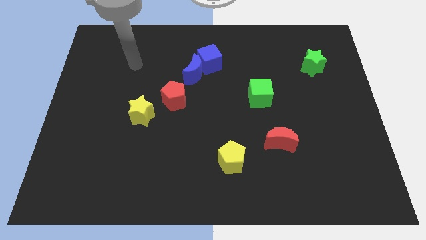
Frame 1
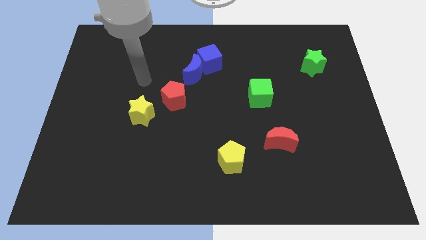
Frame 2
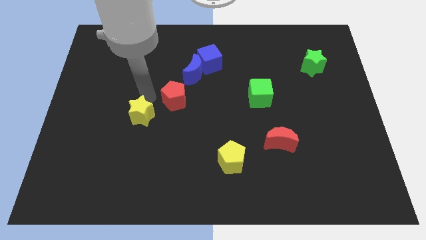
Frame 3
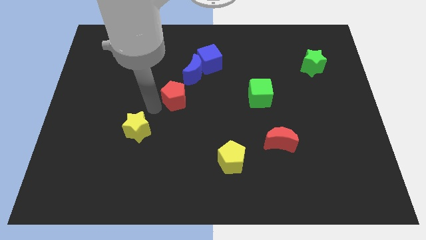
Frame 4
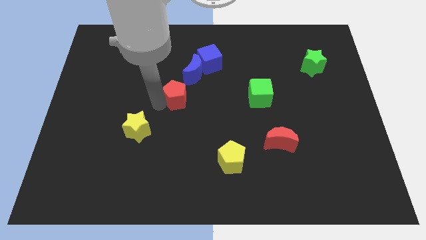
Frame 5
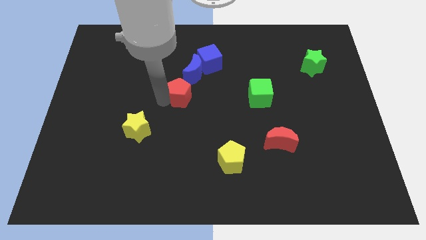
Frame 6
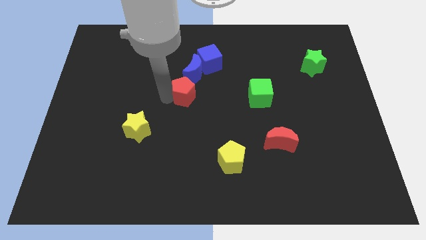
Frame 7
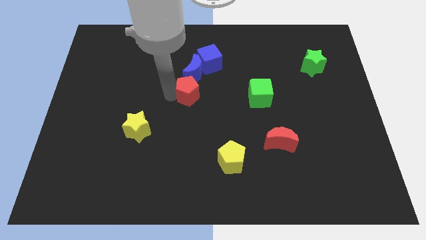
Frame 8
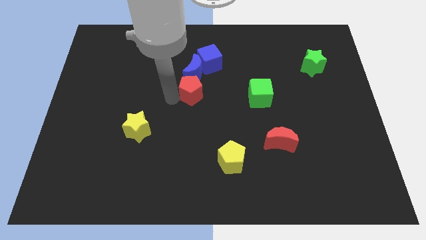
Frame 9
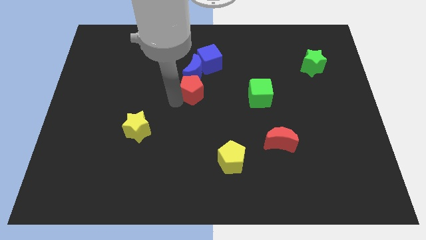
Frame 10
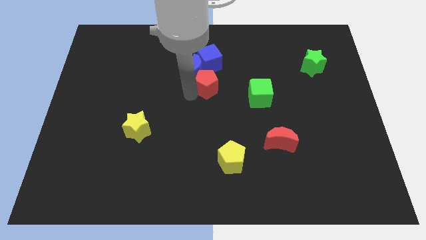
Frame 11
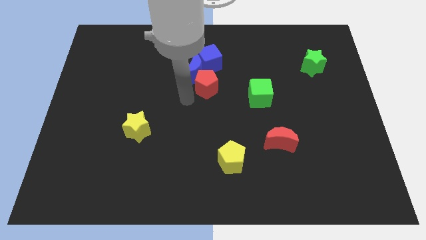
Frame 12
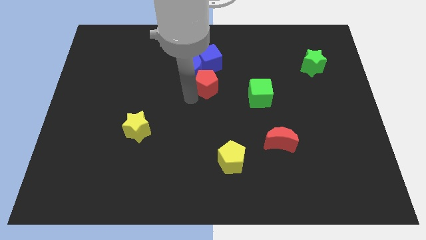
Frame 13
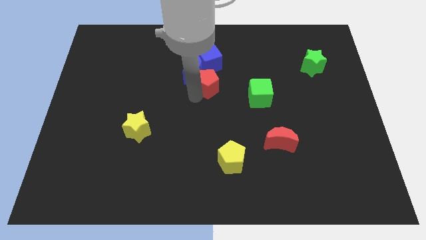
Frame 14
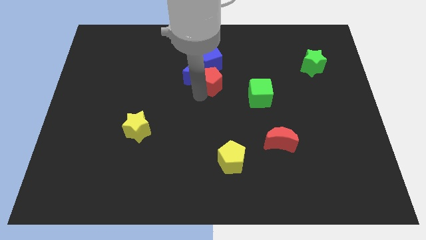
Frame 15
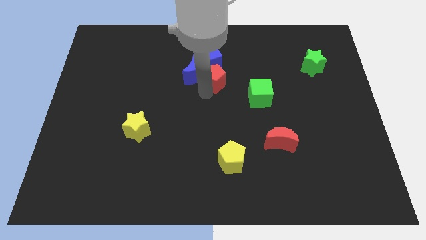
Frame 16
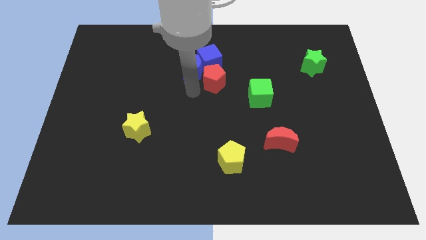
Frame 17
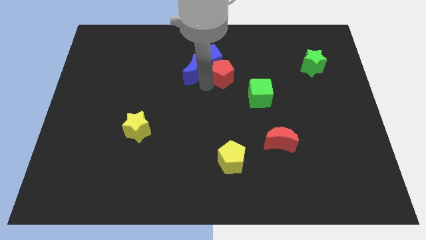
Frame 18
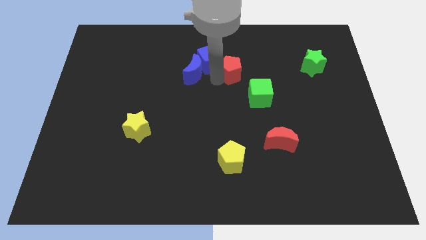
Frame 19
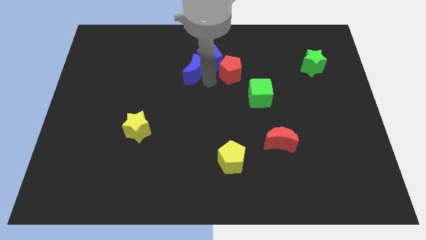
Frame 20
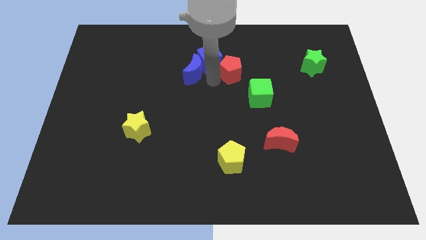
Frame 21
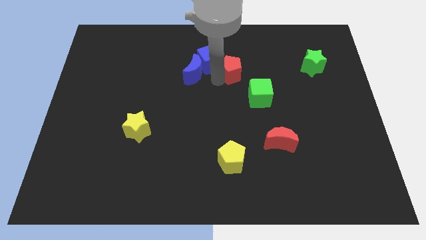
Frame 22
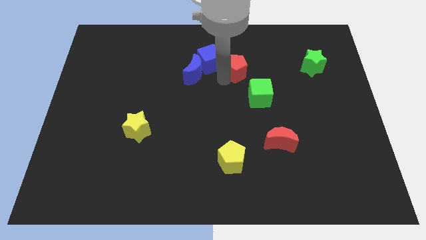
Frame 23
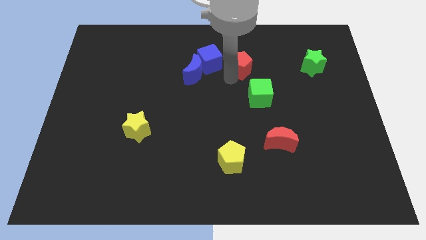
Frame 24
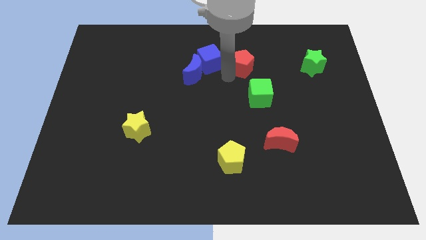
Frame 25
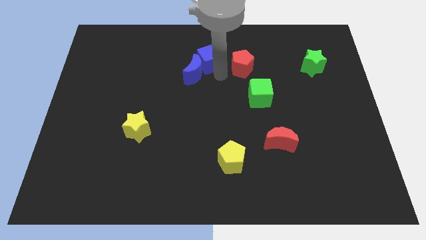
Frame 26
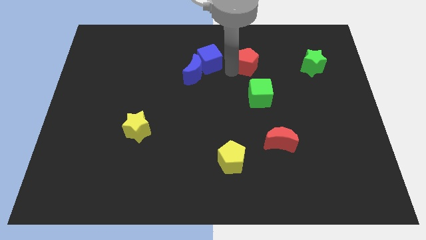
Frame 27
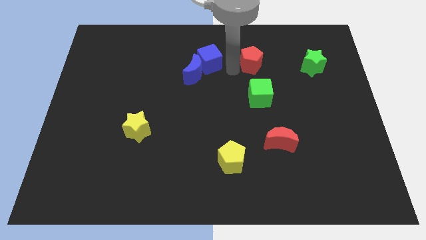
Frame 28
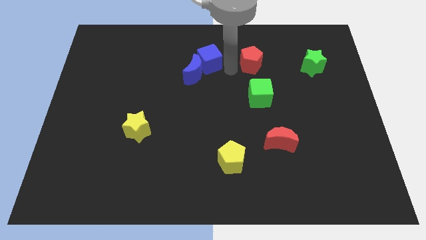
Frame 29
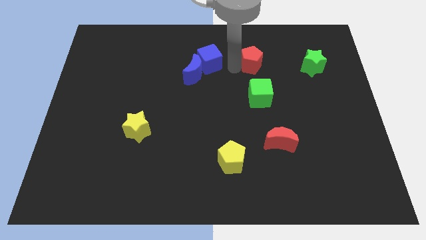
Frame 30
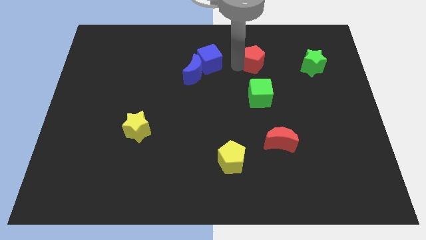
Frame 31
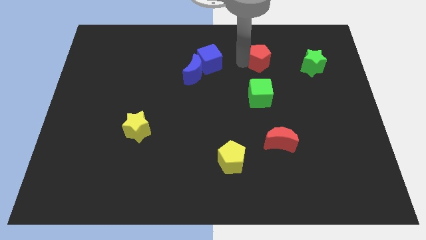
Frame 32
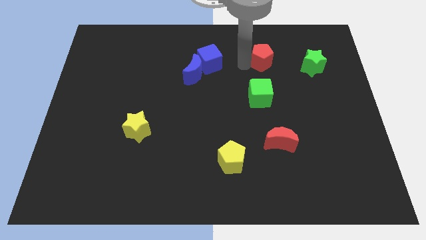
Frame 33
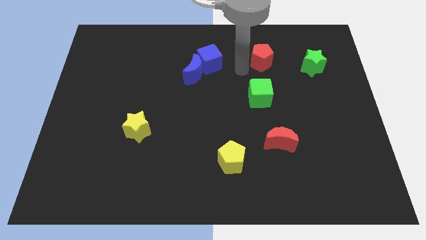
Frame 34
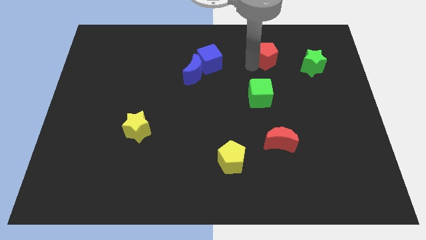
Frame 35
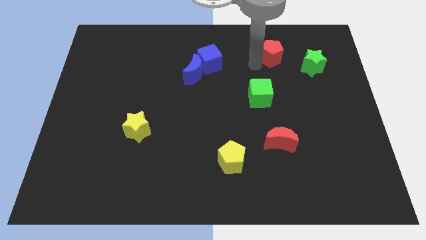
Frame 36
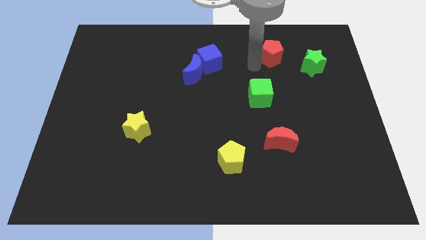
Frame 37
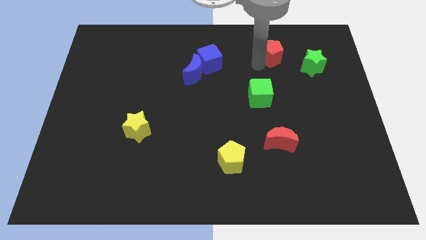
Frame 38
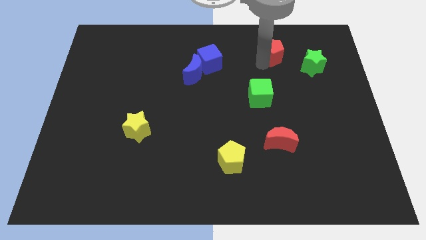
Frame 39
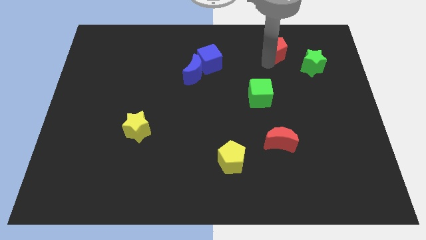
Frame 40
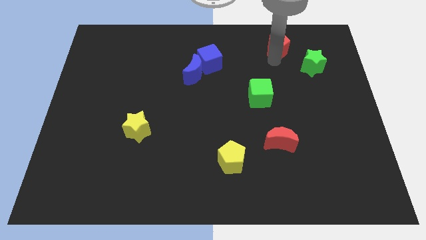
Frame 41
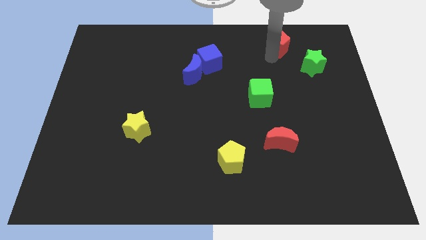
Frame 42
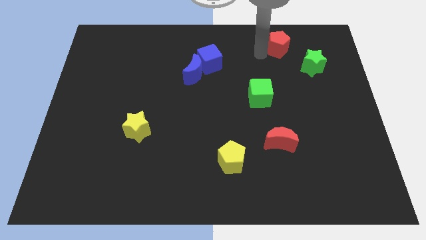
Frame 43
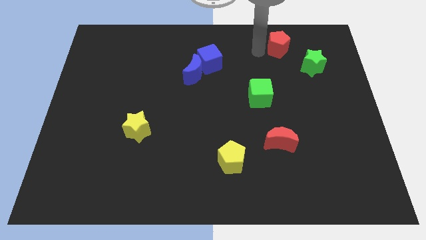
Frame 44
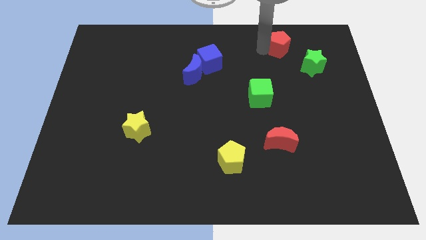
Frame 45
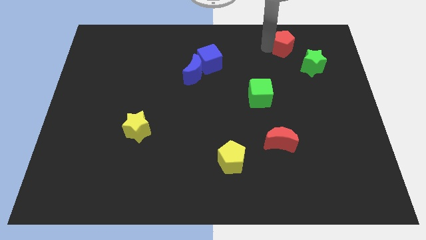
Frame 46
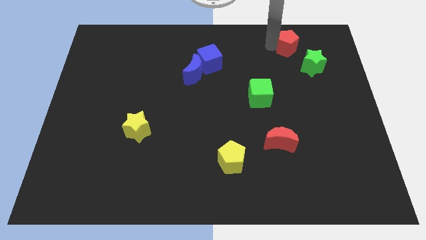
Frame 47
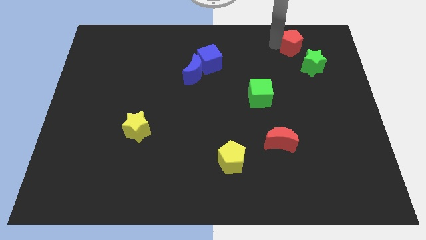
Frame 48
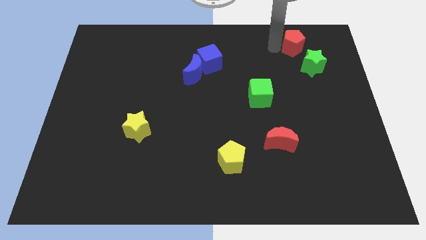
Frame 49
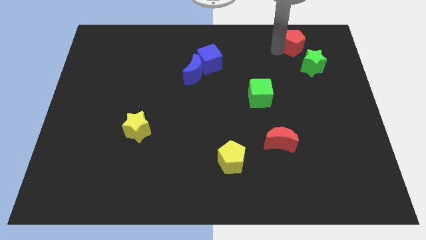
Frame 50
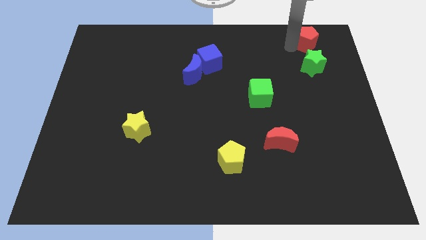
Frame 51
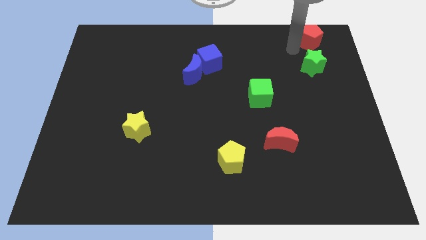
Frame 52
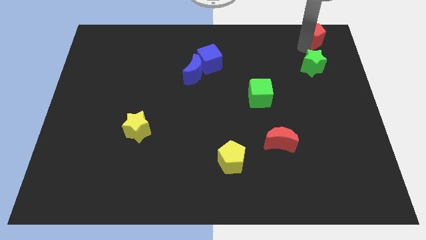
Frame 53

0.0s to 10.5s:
push the red pentagon to the upper right corner

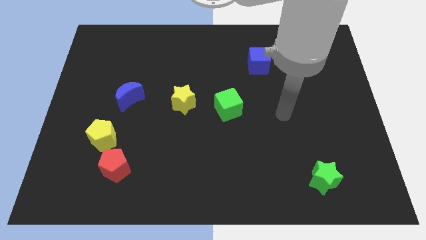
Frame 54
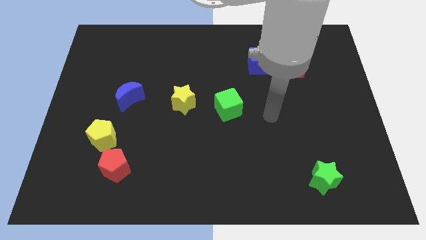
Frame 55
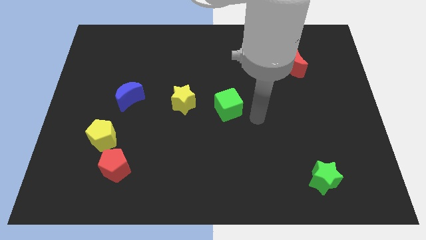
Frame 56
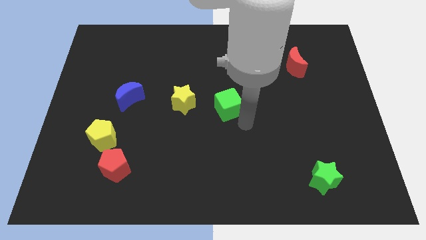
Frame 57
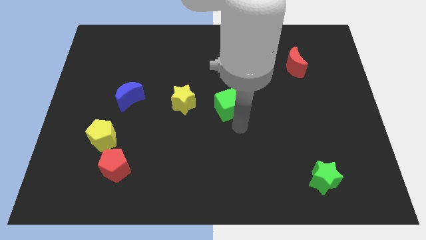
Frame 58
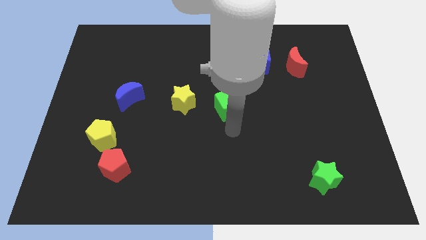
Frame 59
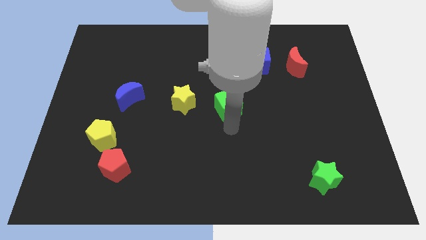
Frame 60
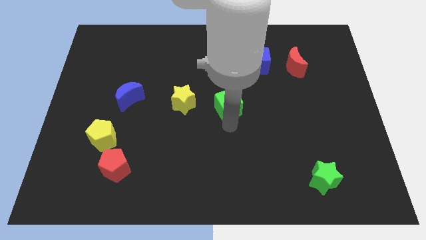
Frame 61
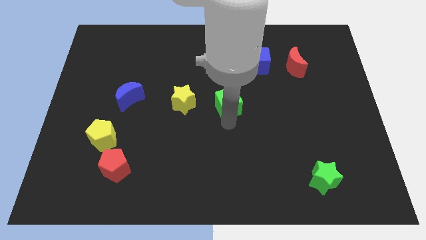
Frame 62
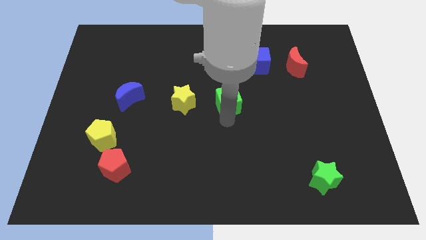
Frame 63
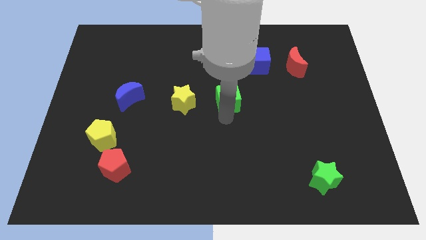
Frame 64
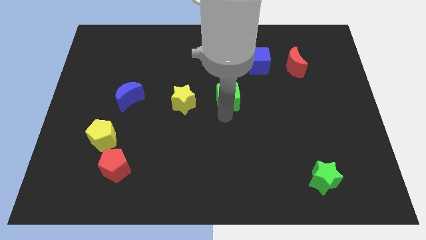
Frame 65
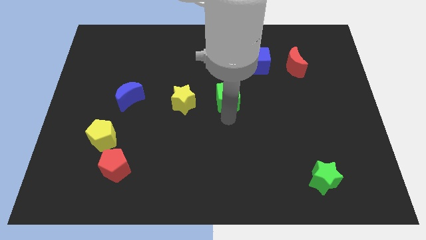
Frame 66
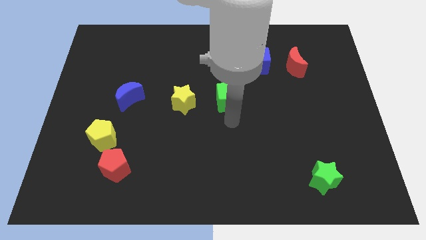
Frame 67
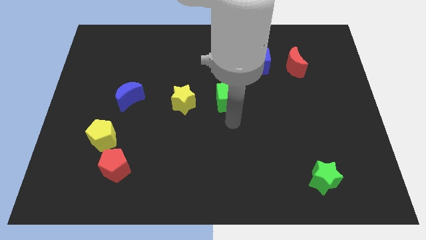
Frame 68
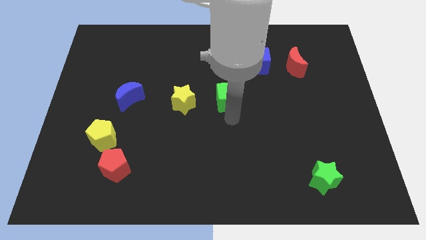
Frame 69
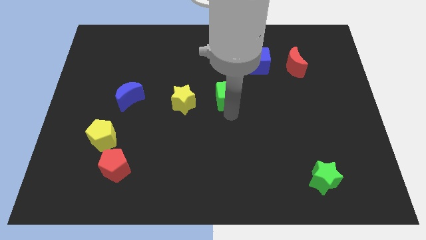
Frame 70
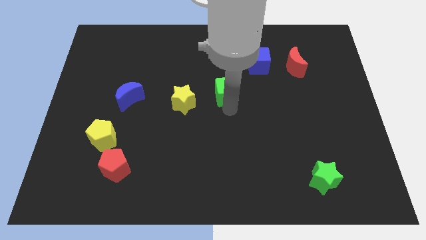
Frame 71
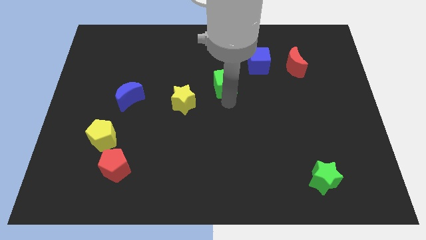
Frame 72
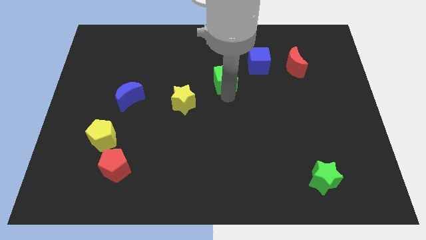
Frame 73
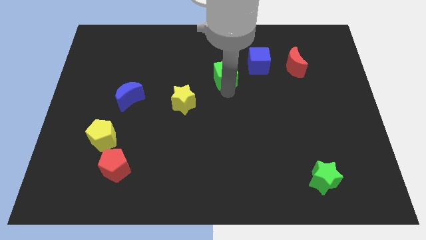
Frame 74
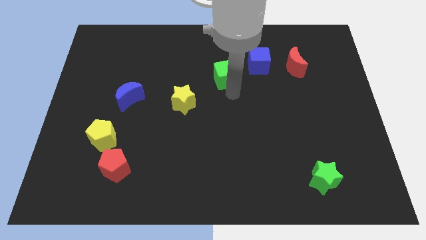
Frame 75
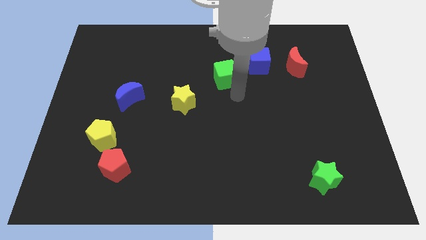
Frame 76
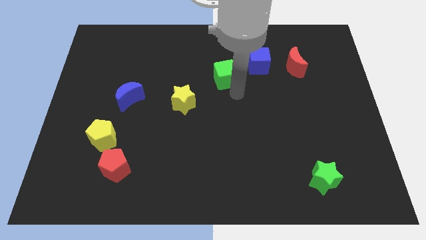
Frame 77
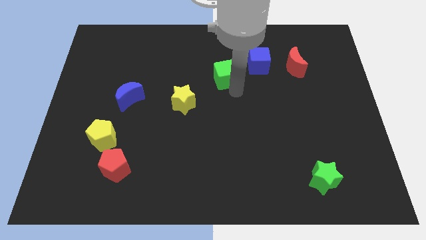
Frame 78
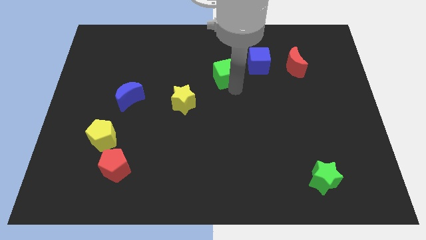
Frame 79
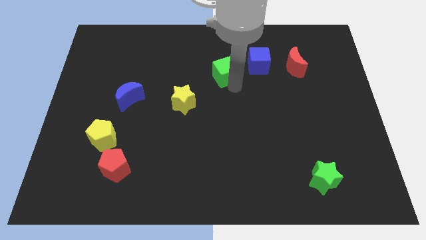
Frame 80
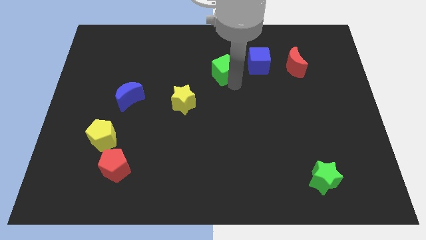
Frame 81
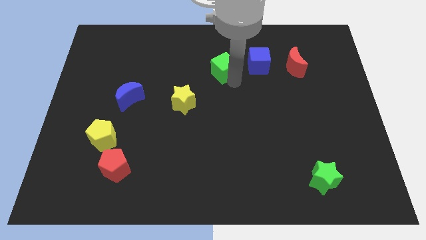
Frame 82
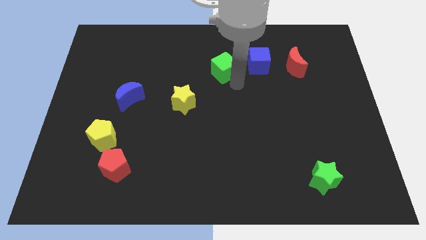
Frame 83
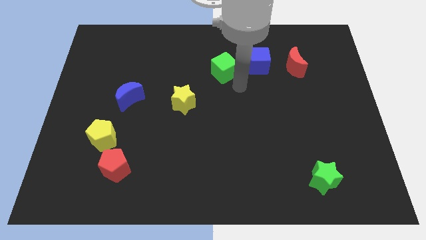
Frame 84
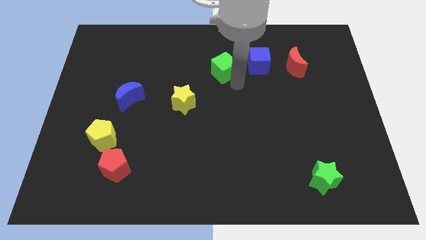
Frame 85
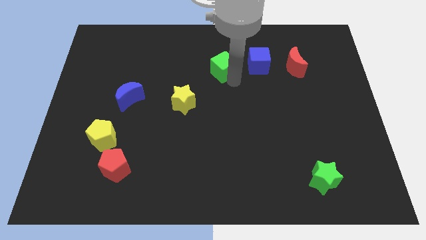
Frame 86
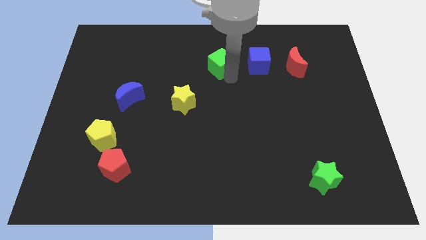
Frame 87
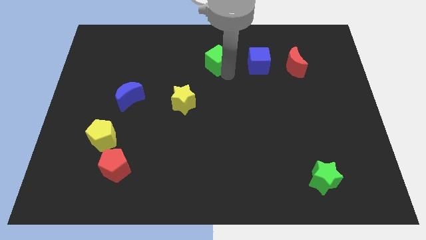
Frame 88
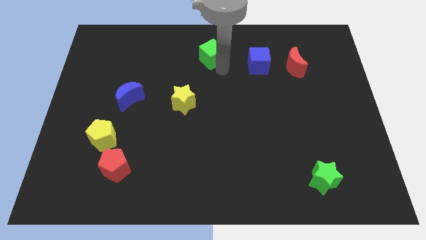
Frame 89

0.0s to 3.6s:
push the green cube to the top side
